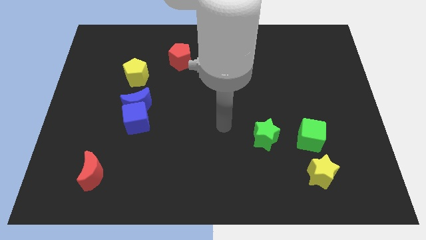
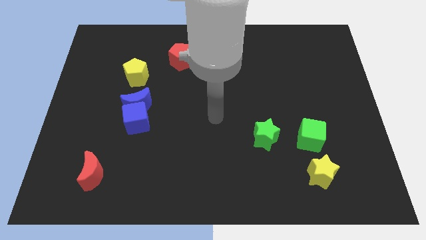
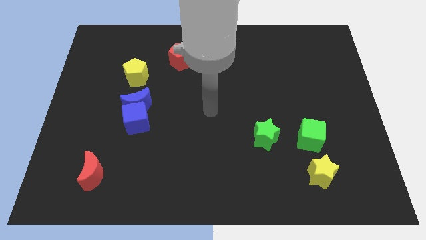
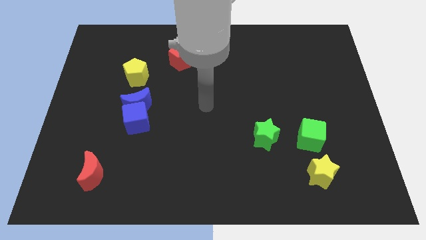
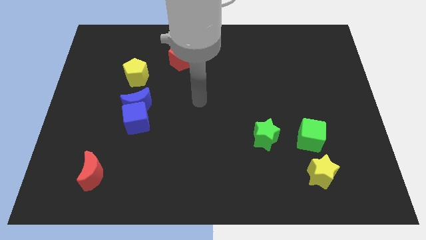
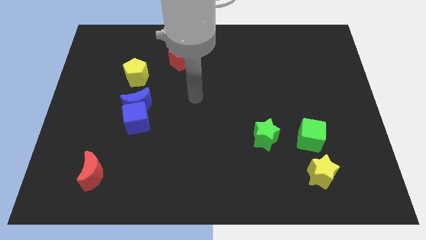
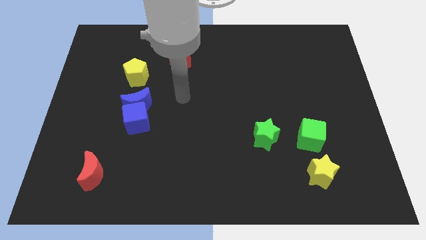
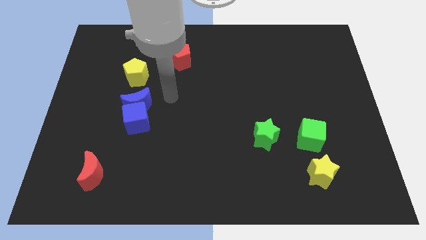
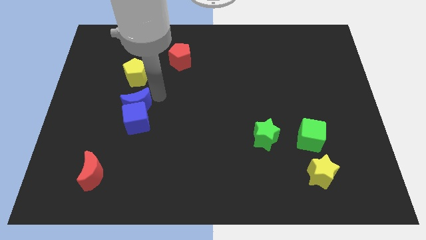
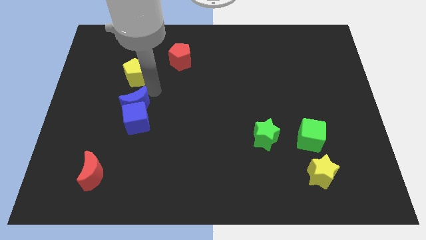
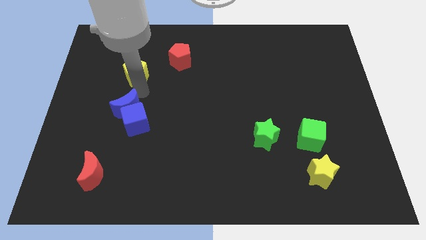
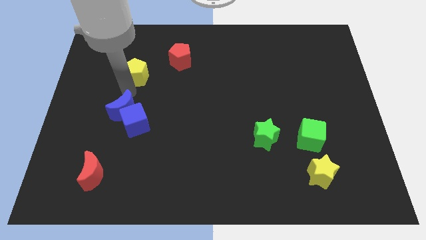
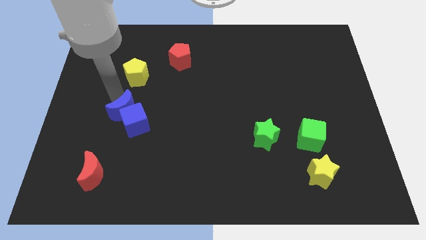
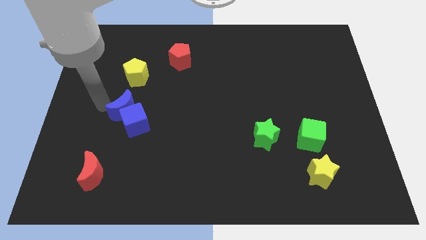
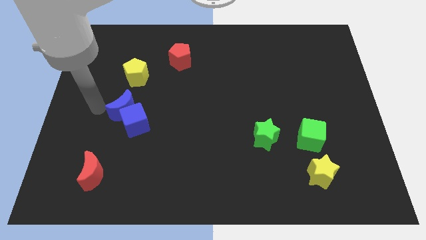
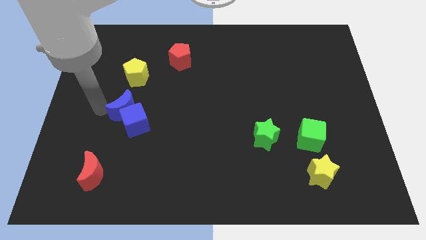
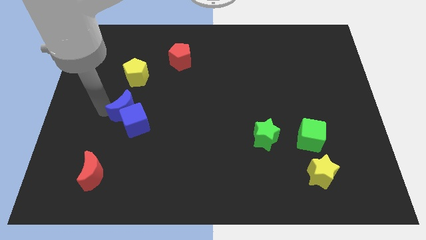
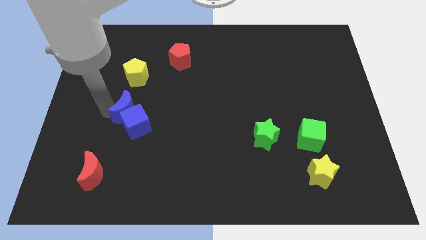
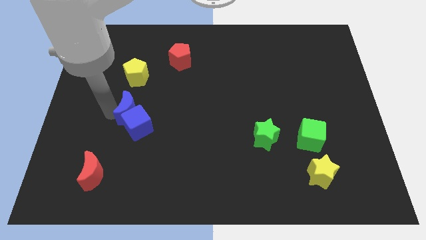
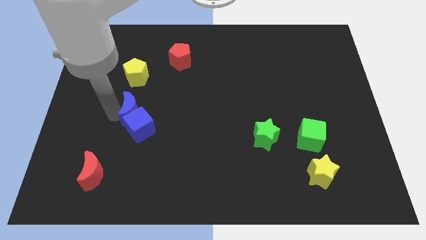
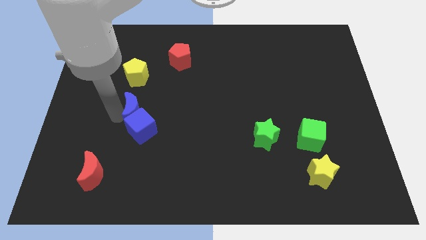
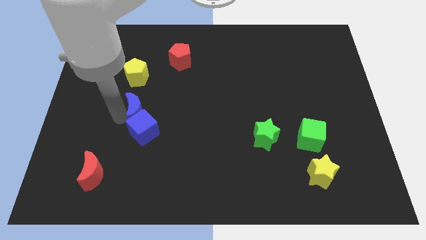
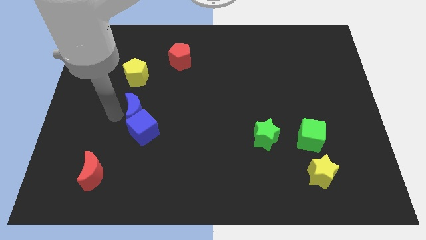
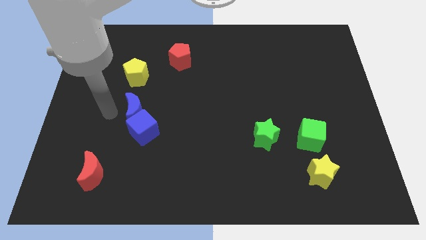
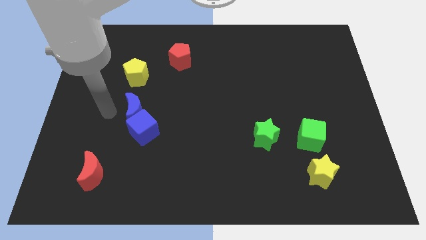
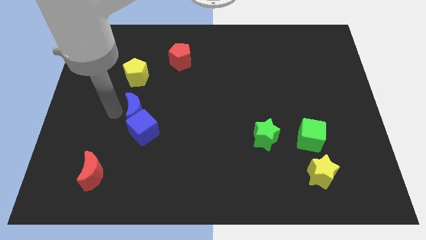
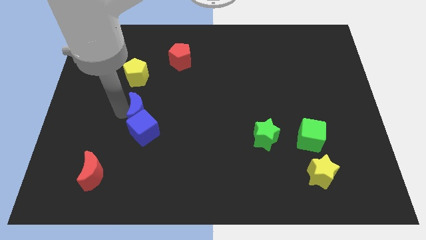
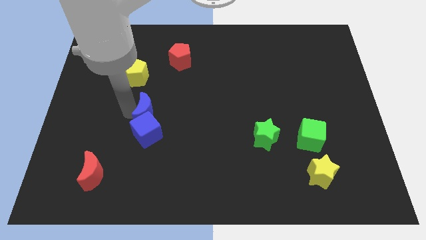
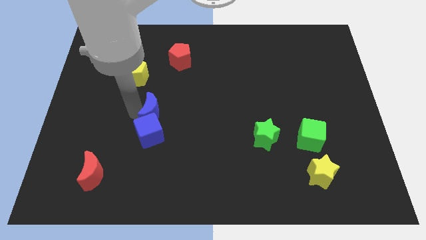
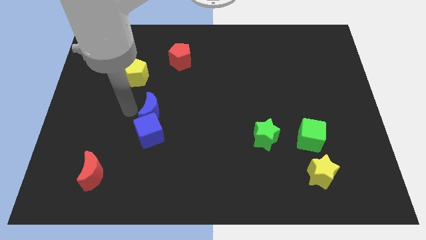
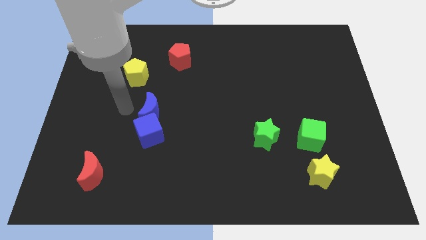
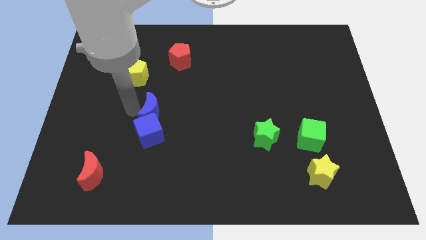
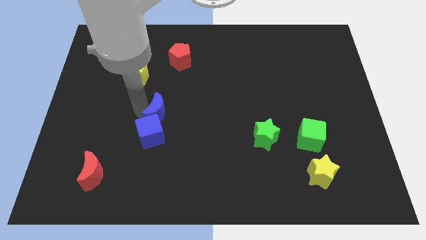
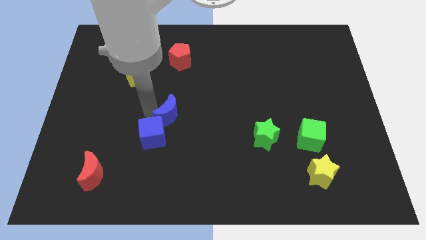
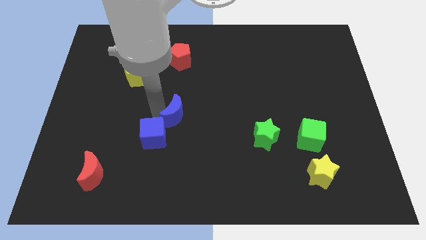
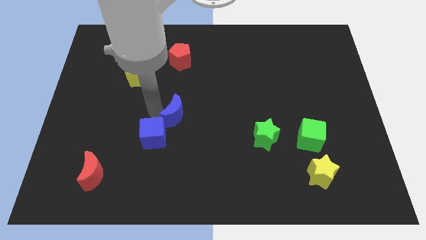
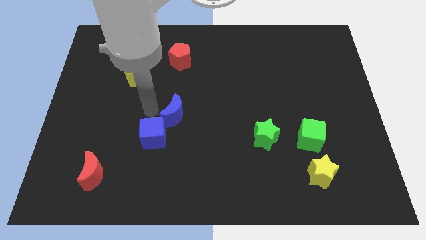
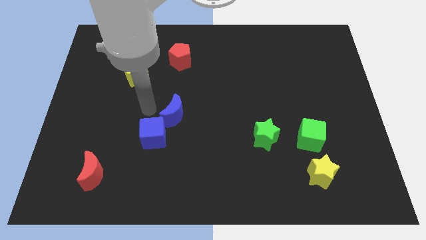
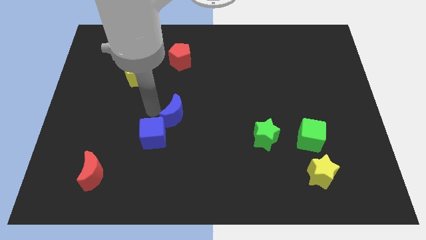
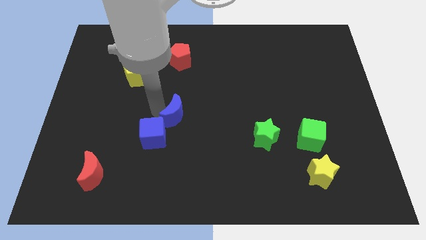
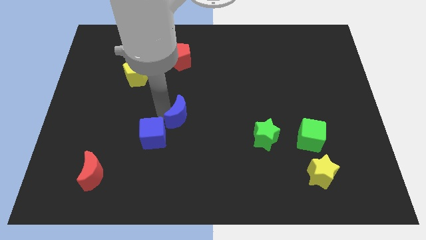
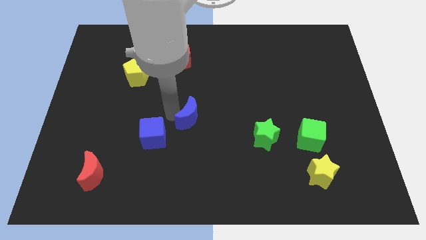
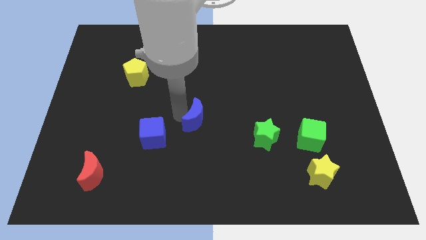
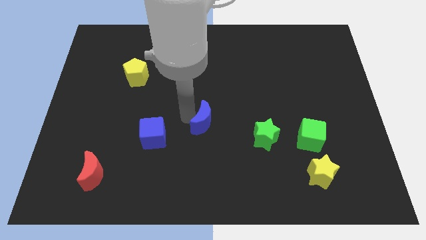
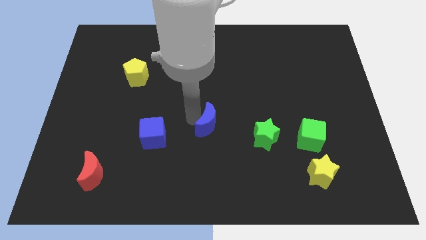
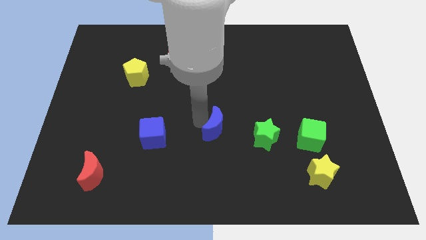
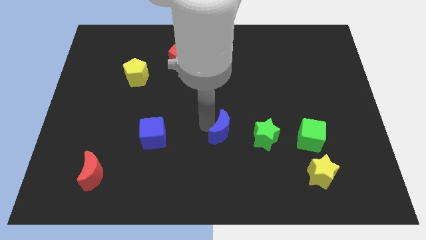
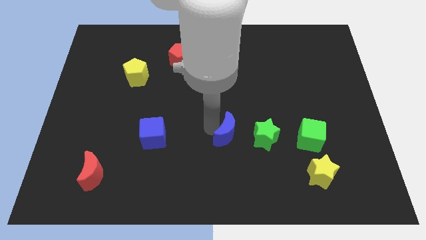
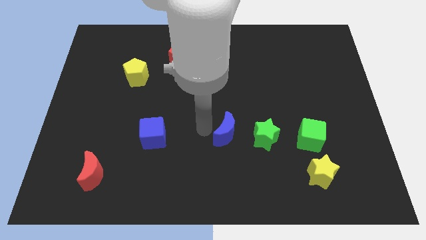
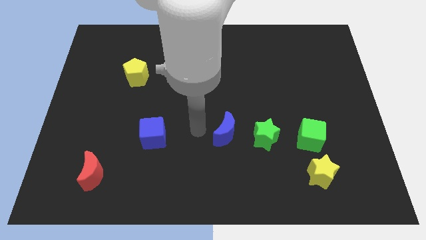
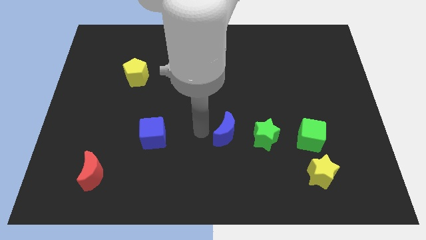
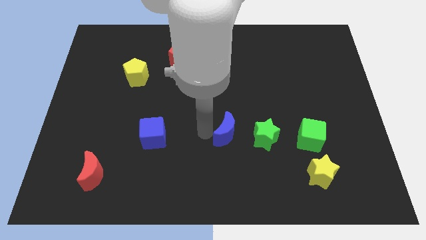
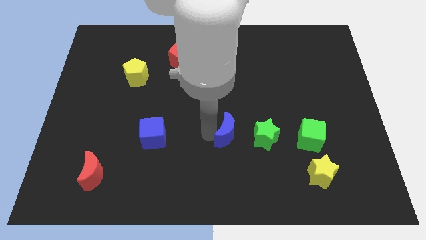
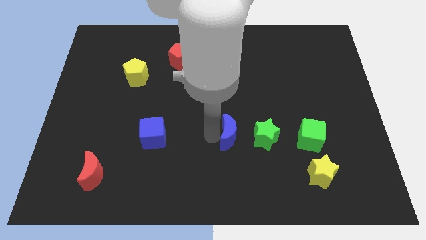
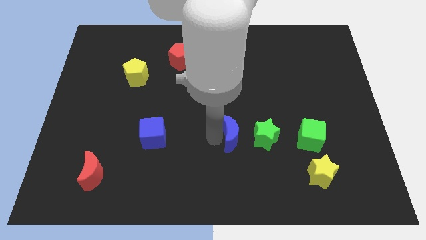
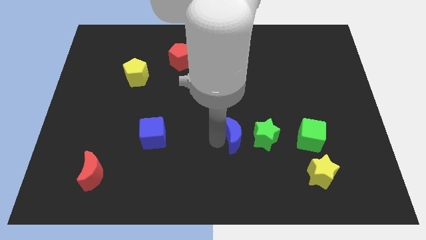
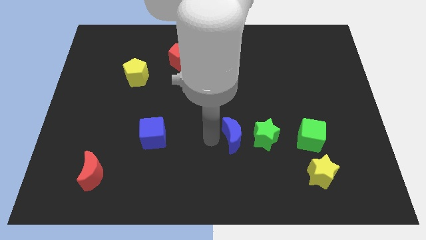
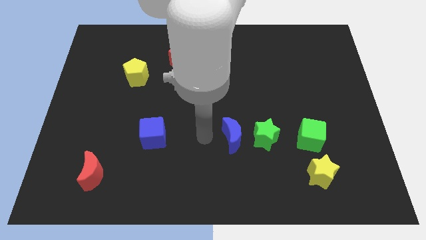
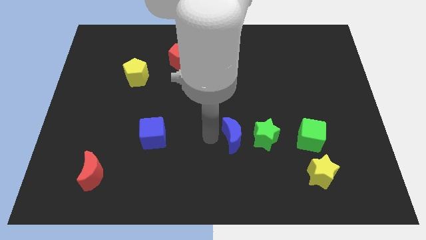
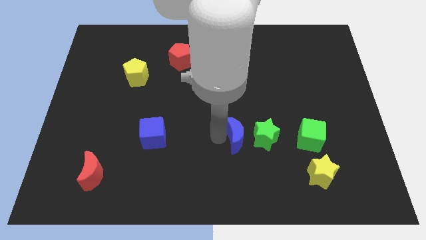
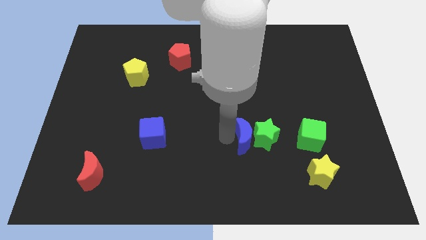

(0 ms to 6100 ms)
move the blue moon next to the green star

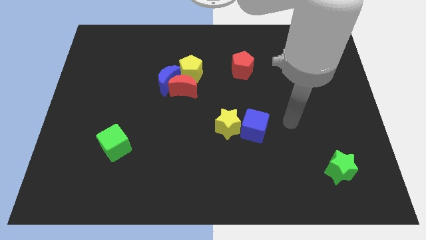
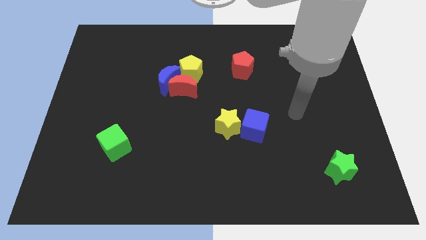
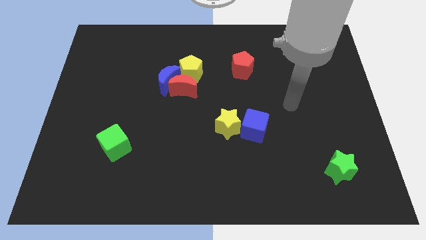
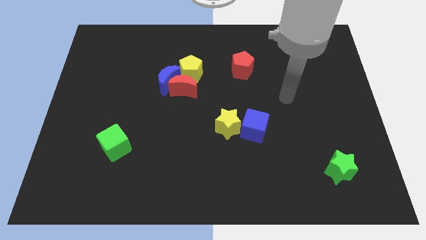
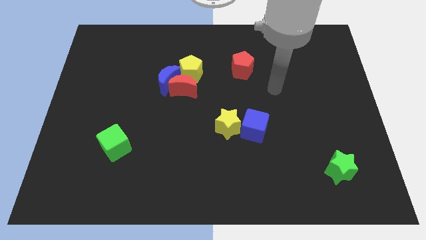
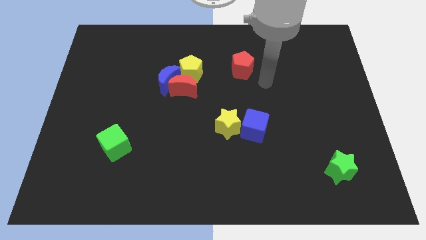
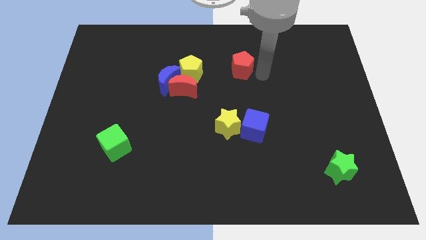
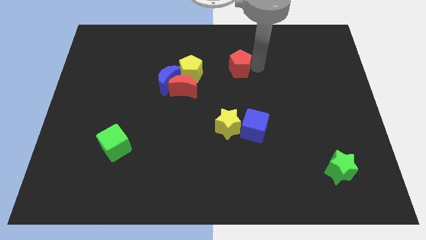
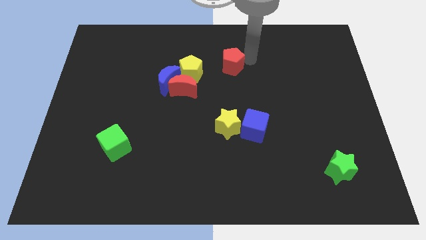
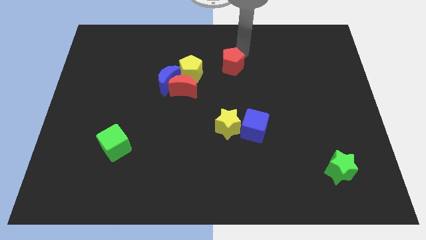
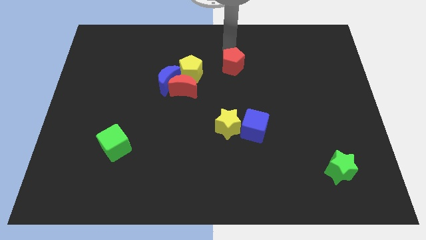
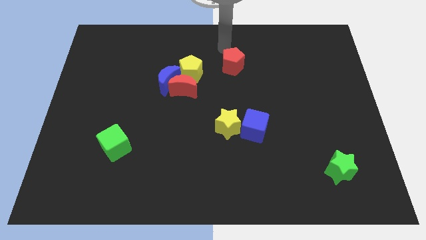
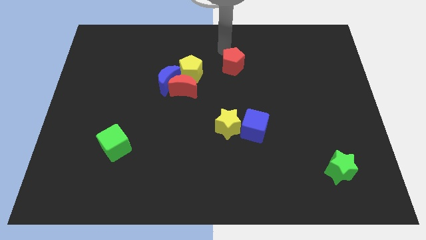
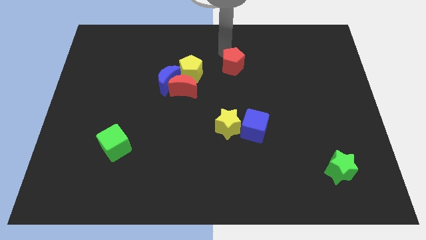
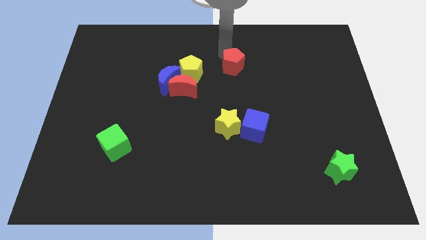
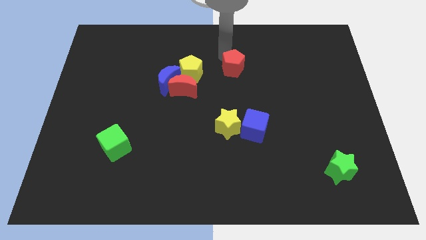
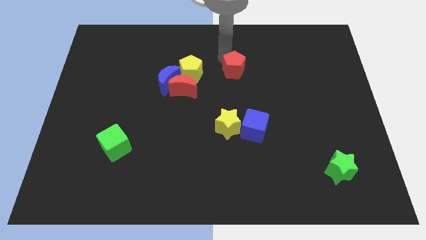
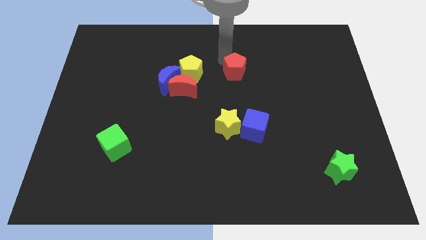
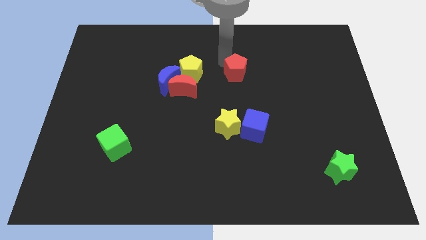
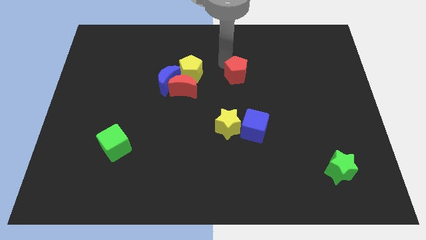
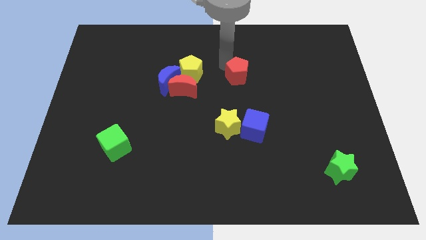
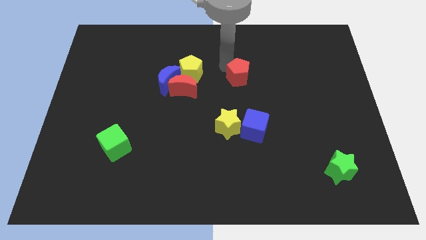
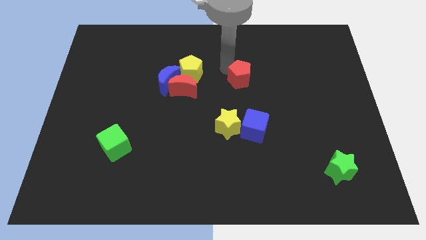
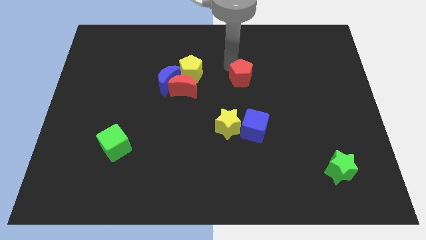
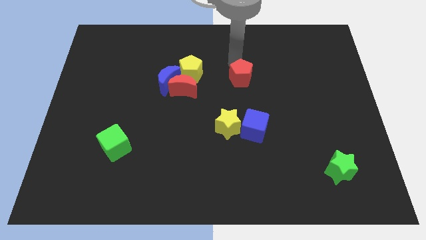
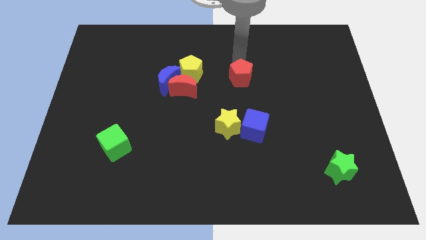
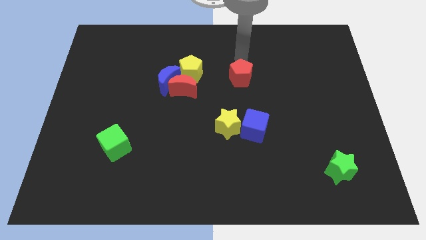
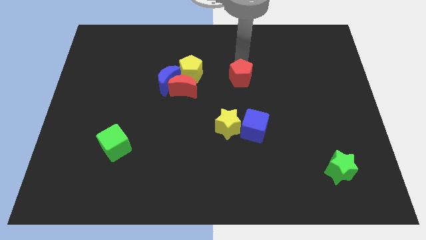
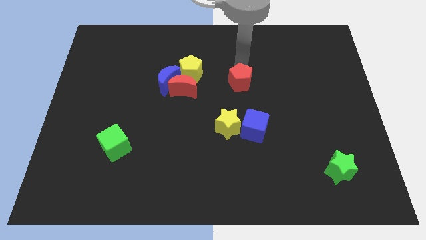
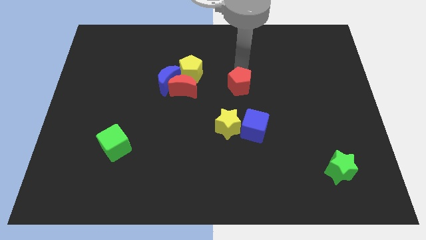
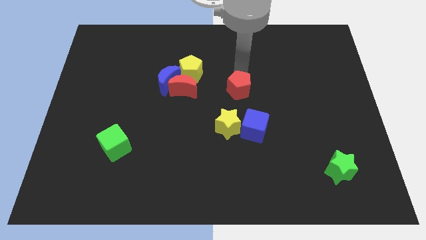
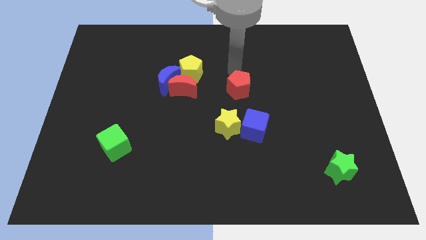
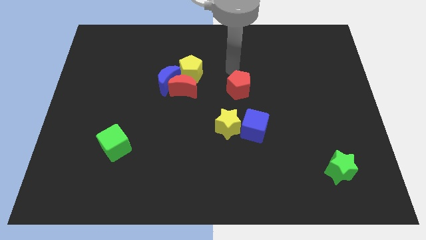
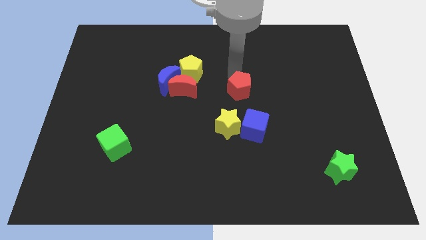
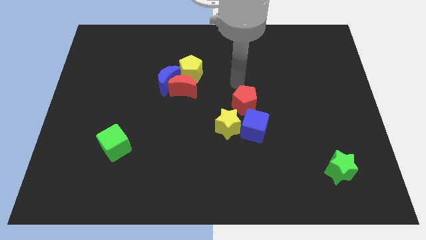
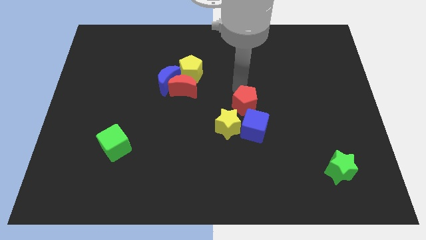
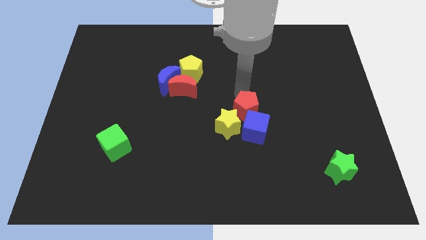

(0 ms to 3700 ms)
push the red pentagon next to the blue cube
